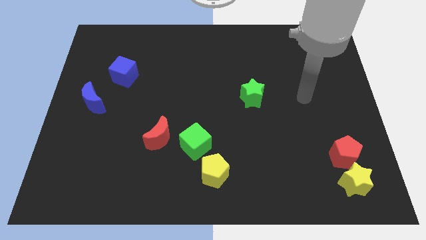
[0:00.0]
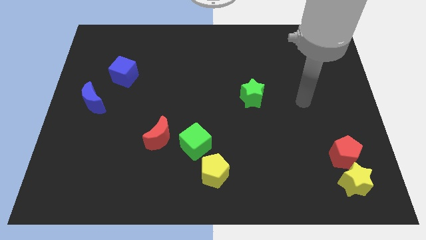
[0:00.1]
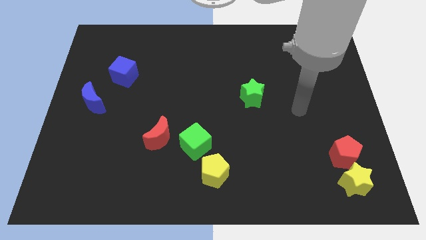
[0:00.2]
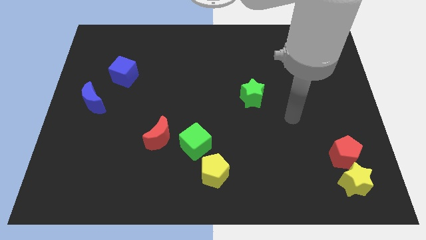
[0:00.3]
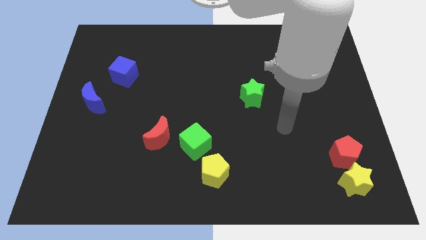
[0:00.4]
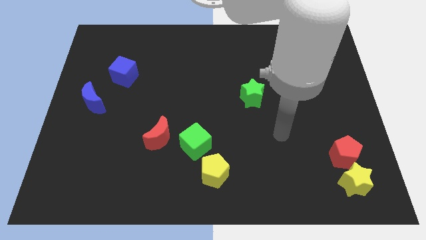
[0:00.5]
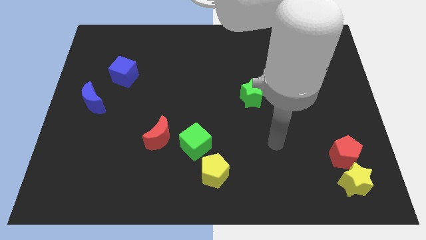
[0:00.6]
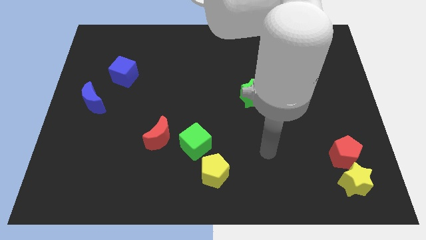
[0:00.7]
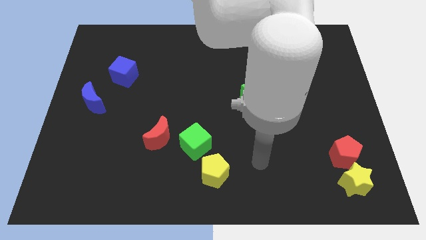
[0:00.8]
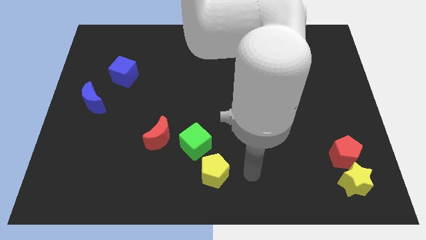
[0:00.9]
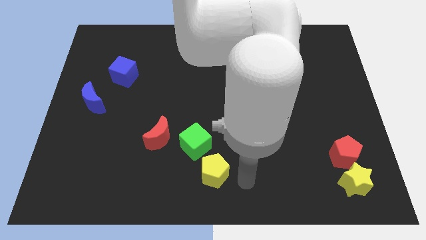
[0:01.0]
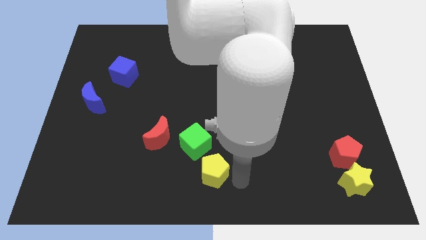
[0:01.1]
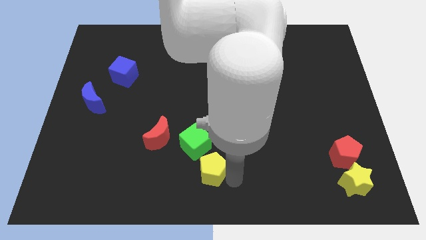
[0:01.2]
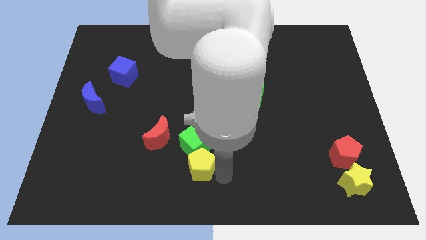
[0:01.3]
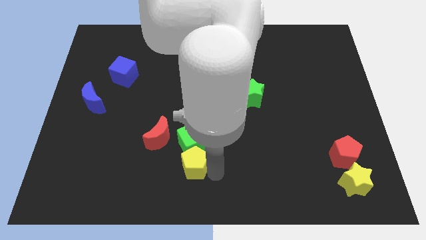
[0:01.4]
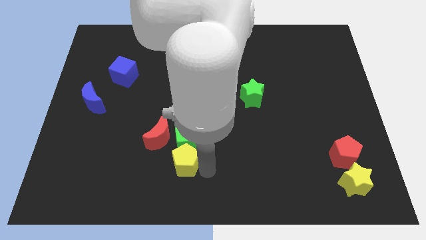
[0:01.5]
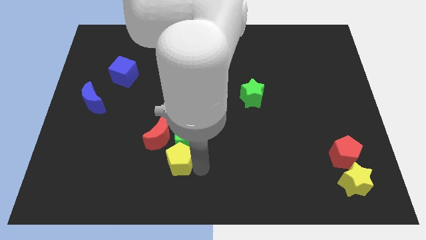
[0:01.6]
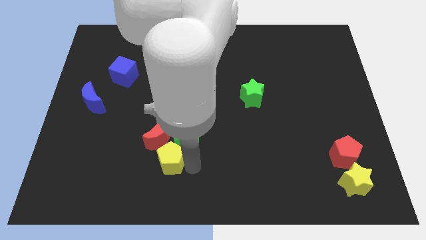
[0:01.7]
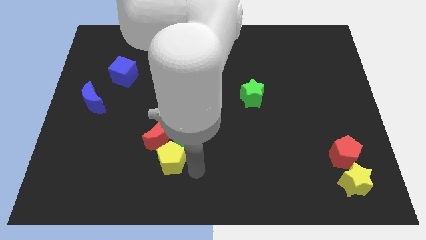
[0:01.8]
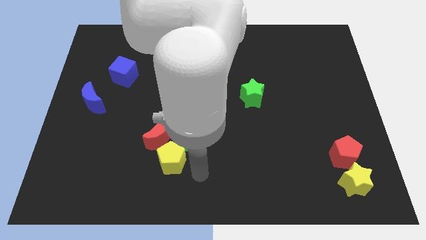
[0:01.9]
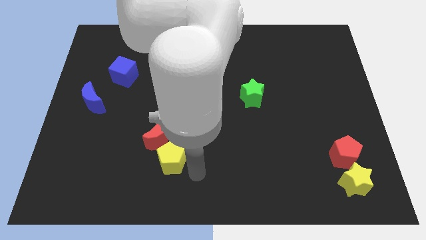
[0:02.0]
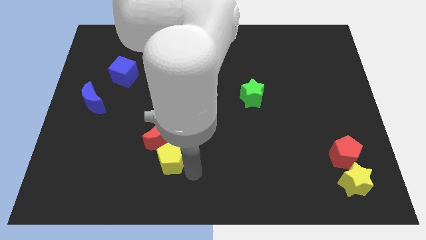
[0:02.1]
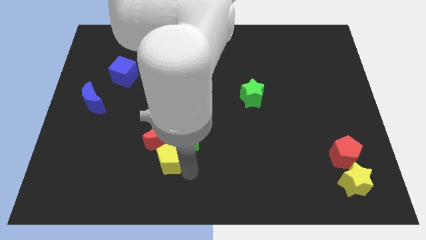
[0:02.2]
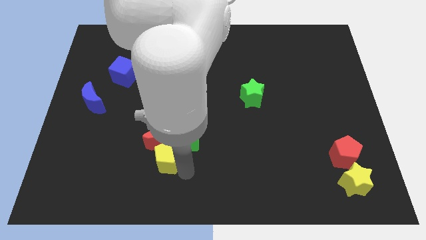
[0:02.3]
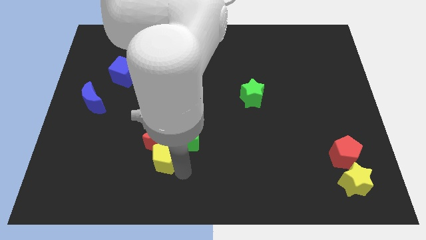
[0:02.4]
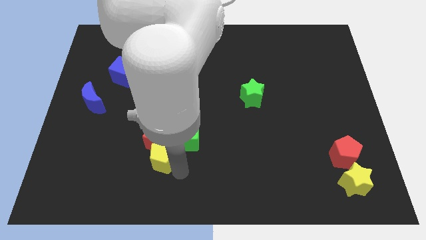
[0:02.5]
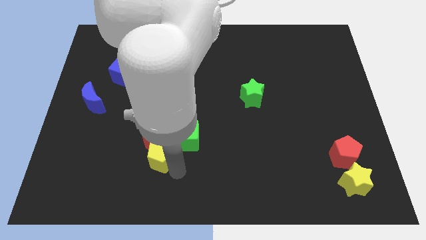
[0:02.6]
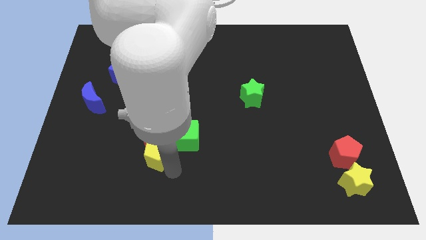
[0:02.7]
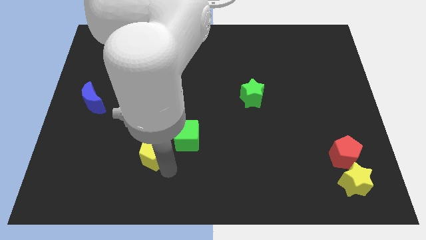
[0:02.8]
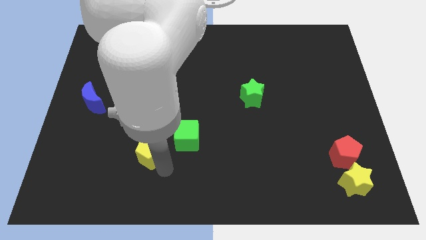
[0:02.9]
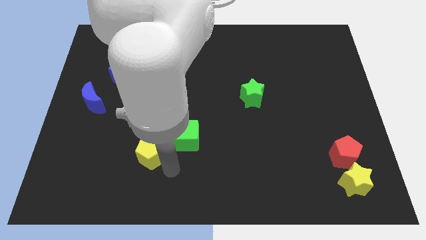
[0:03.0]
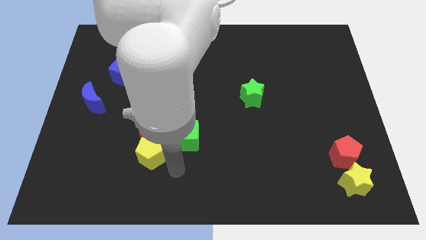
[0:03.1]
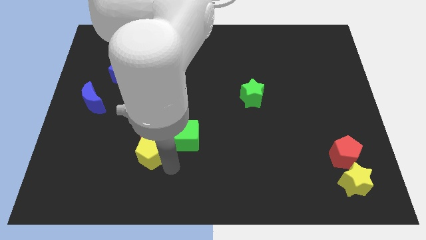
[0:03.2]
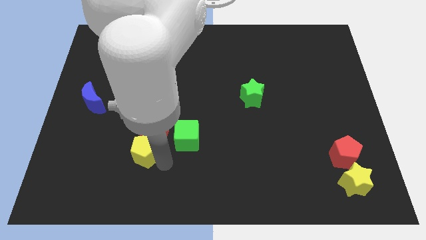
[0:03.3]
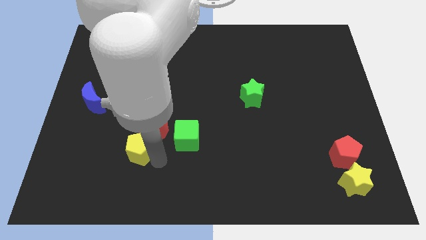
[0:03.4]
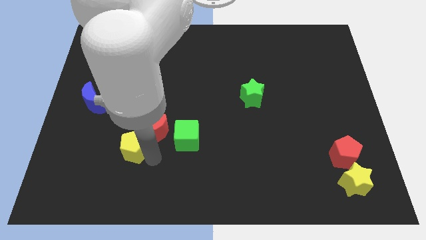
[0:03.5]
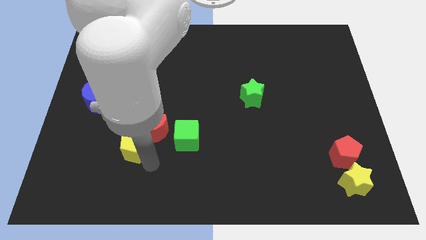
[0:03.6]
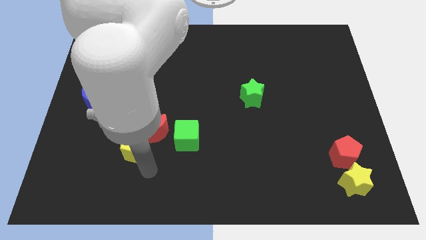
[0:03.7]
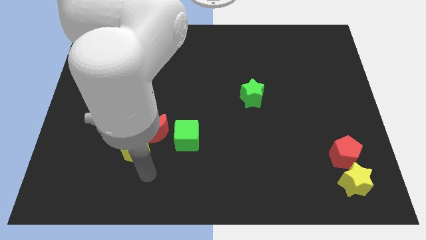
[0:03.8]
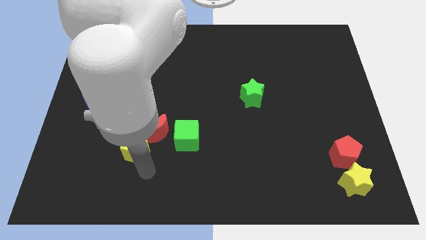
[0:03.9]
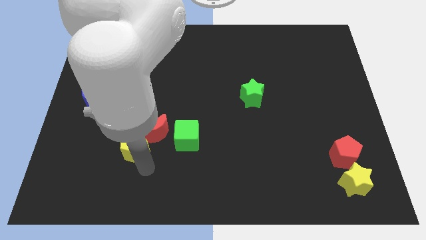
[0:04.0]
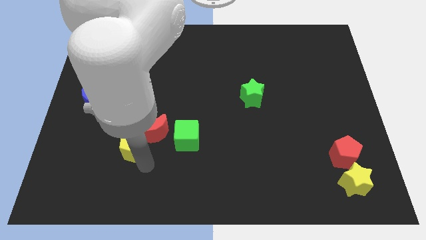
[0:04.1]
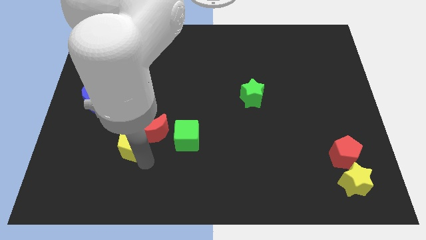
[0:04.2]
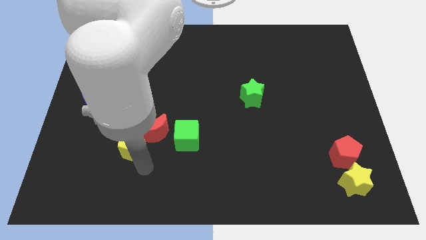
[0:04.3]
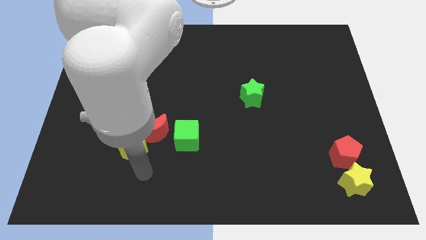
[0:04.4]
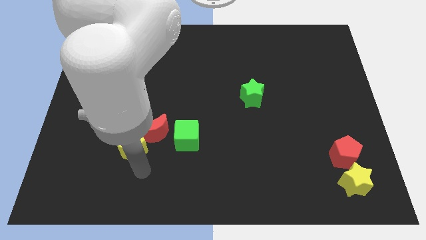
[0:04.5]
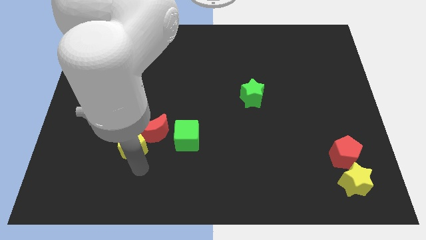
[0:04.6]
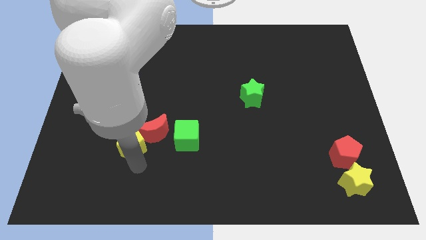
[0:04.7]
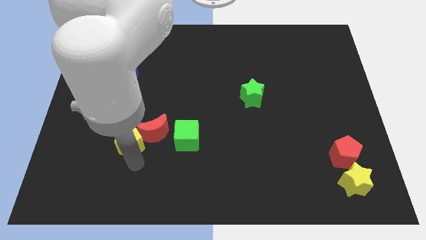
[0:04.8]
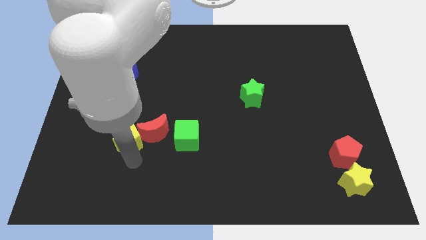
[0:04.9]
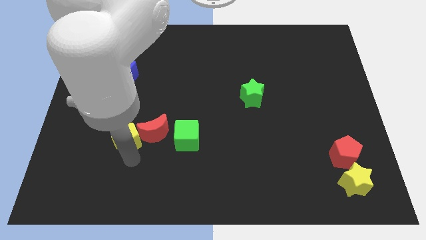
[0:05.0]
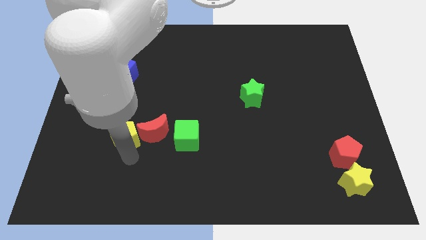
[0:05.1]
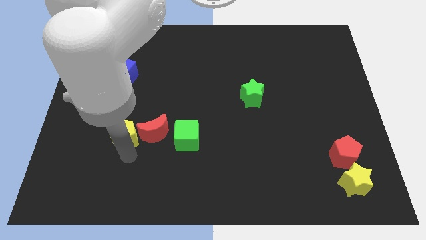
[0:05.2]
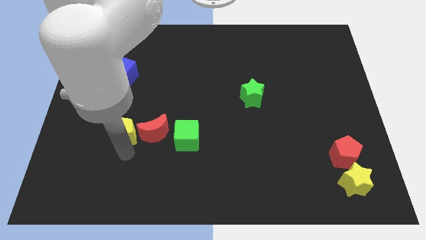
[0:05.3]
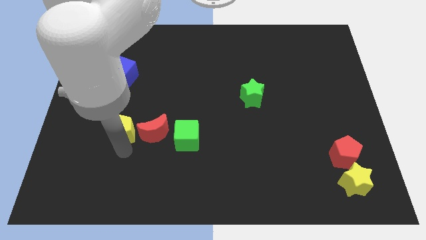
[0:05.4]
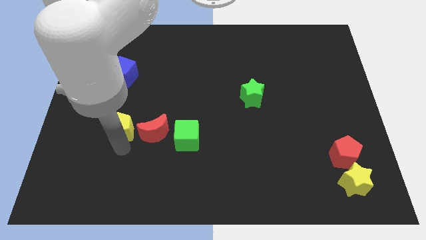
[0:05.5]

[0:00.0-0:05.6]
move the yellow pentagon upwards and then to the left

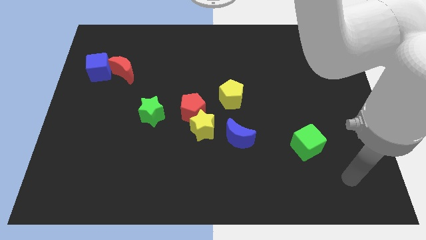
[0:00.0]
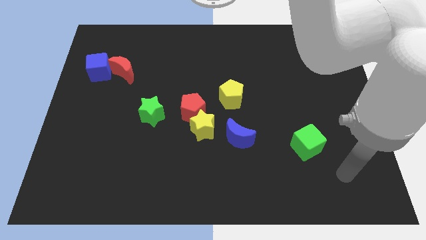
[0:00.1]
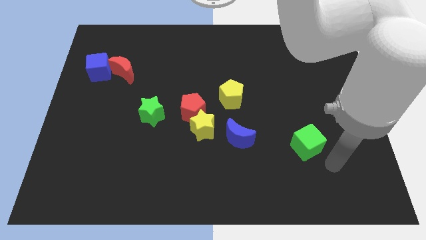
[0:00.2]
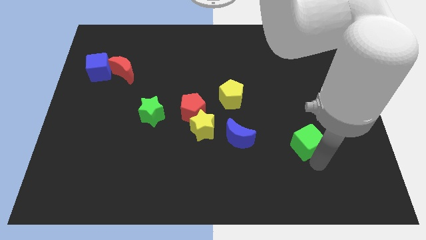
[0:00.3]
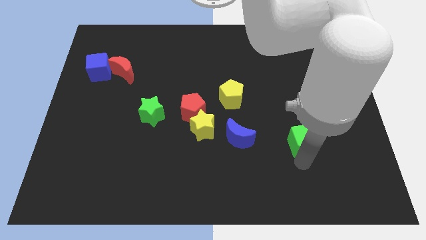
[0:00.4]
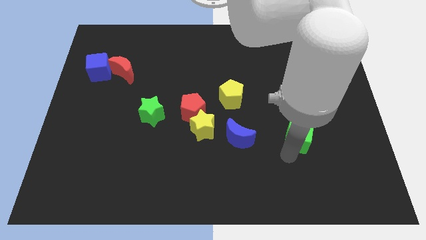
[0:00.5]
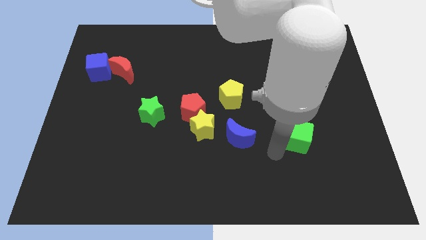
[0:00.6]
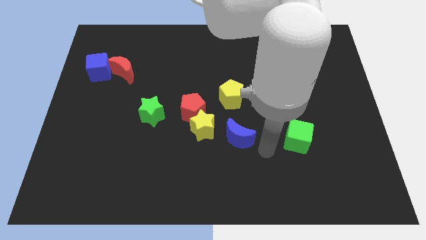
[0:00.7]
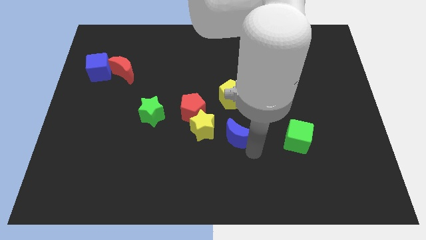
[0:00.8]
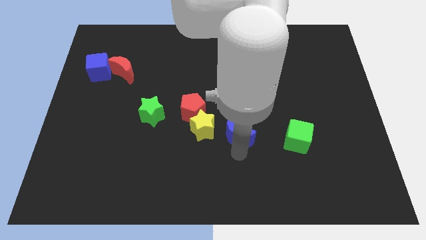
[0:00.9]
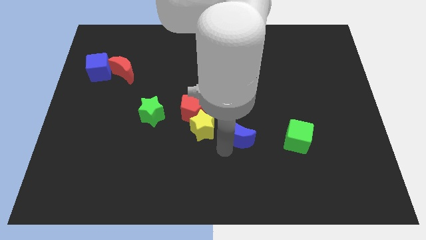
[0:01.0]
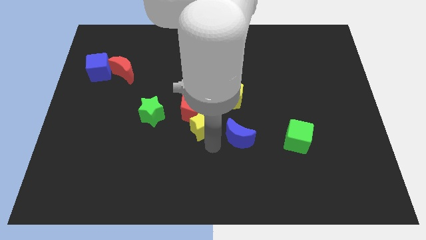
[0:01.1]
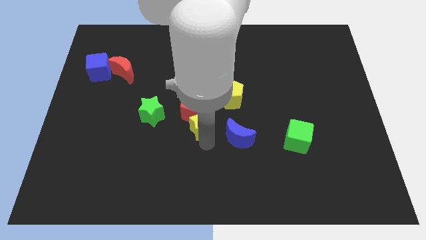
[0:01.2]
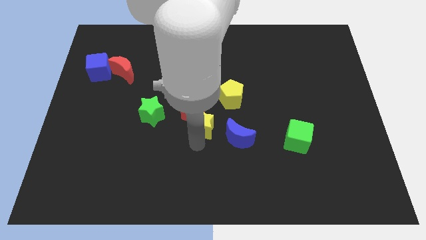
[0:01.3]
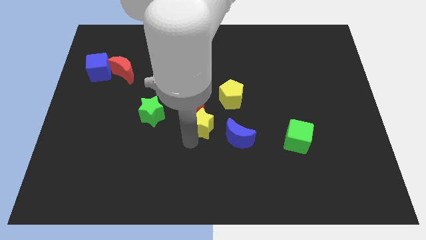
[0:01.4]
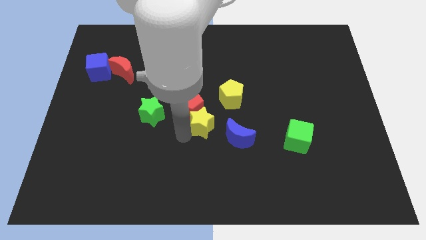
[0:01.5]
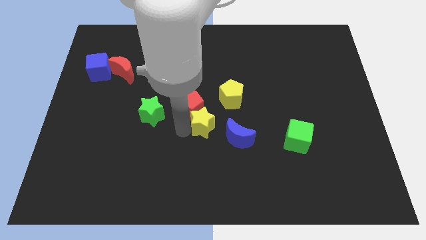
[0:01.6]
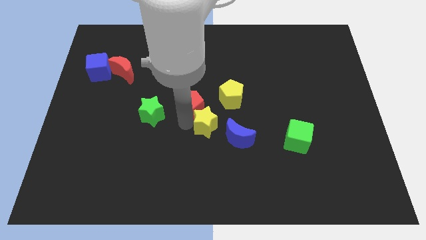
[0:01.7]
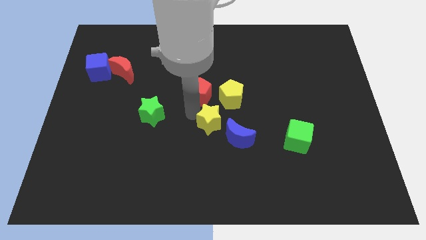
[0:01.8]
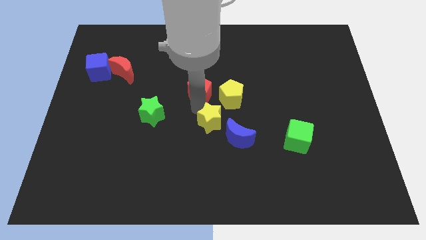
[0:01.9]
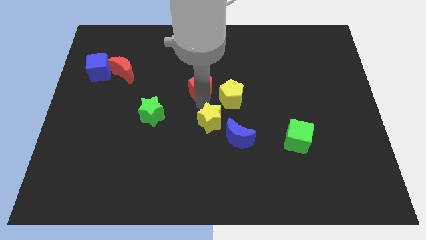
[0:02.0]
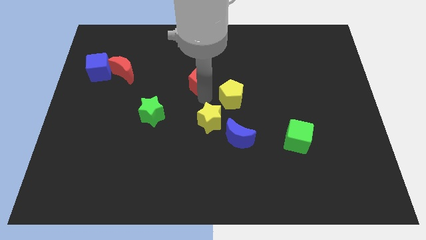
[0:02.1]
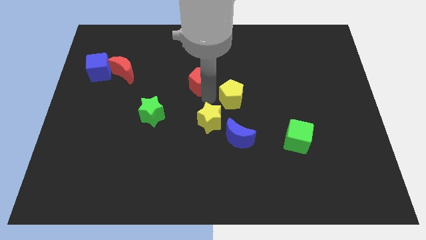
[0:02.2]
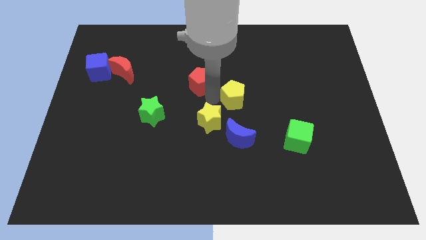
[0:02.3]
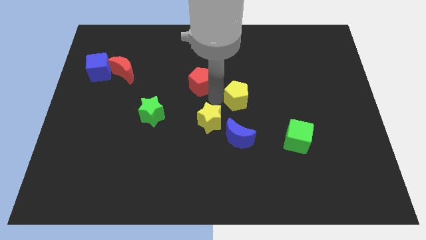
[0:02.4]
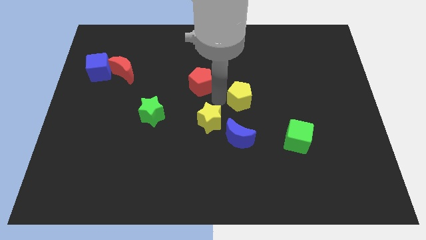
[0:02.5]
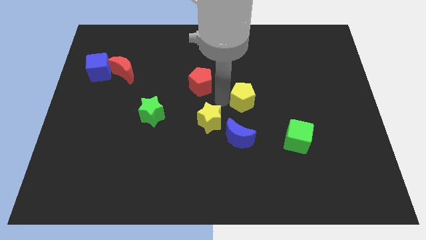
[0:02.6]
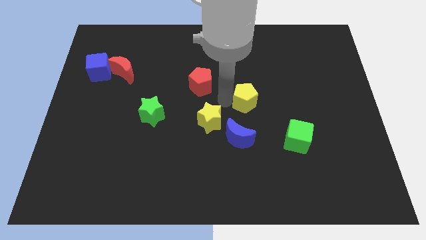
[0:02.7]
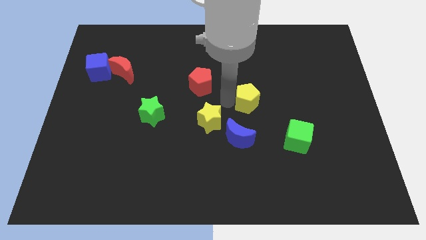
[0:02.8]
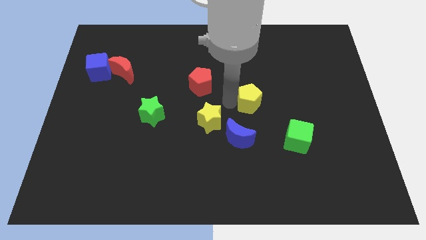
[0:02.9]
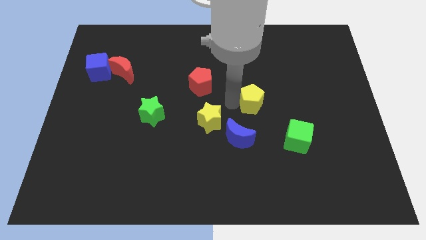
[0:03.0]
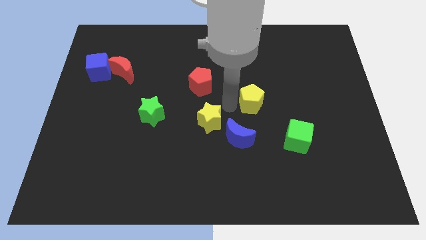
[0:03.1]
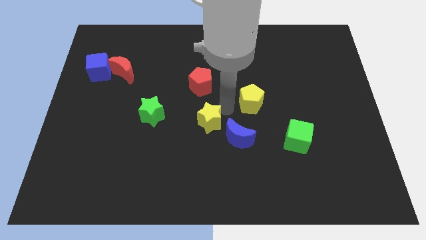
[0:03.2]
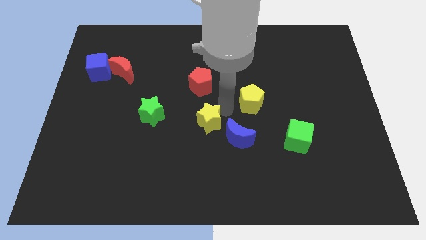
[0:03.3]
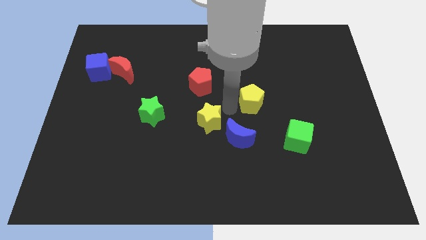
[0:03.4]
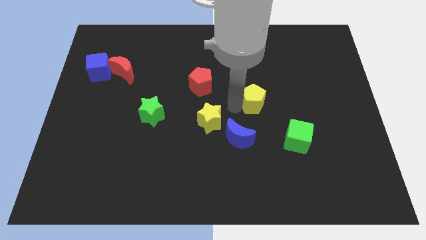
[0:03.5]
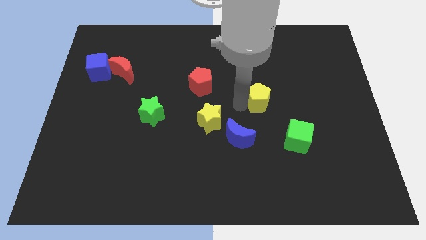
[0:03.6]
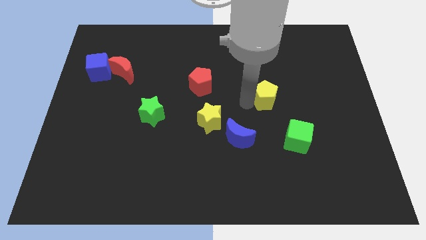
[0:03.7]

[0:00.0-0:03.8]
slightly slide the yellow pentagon right
